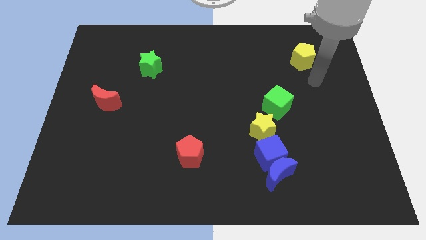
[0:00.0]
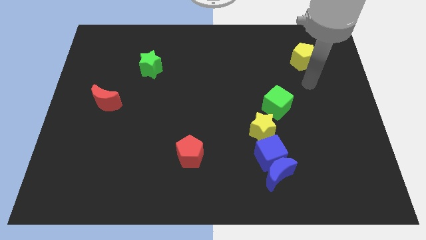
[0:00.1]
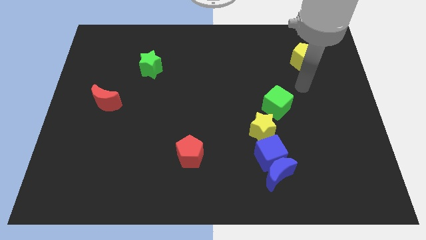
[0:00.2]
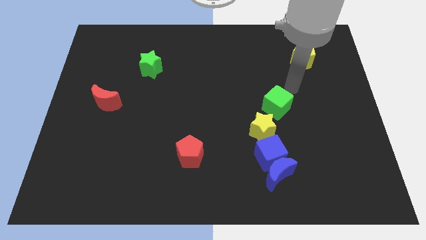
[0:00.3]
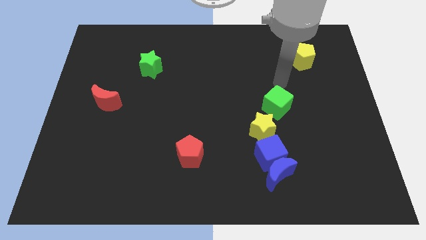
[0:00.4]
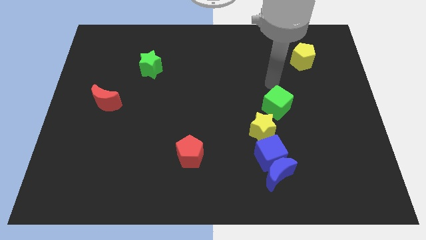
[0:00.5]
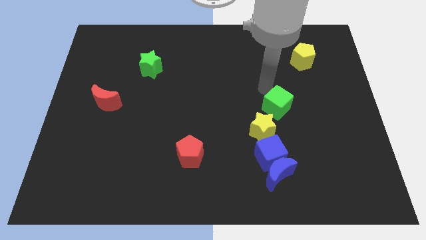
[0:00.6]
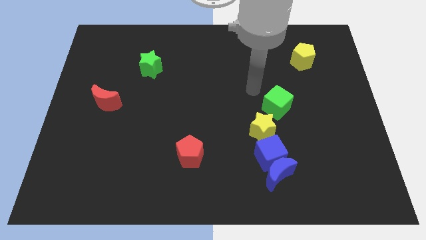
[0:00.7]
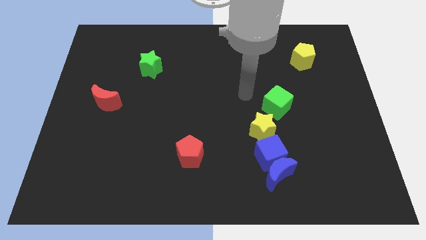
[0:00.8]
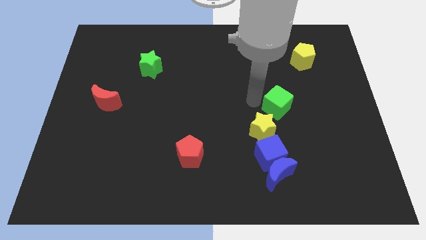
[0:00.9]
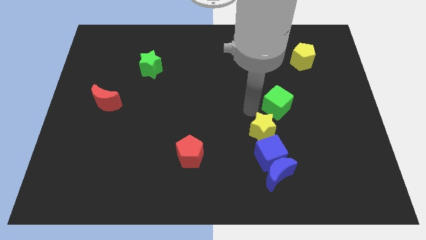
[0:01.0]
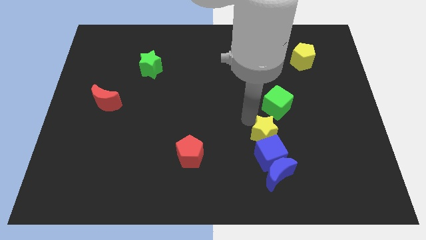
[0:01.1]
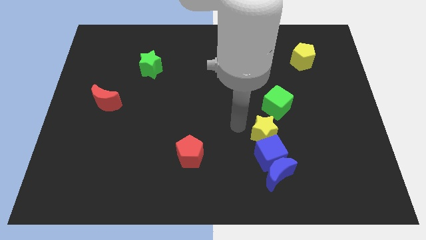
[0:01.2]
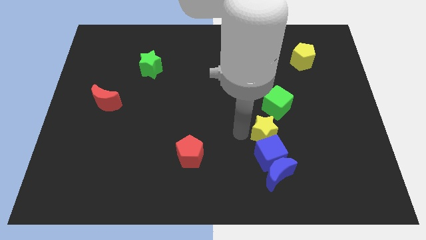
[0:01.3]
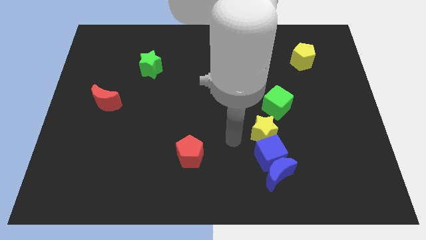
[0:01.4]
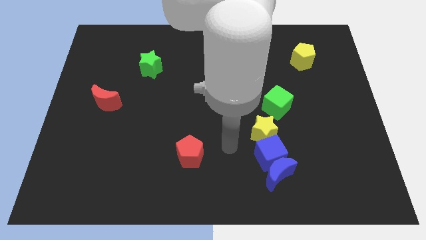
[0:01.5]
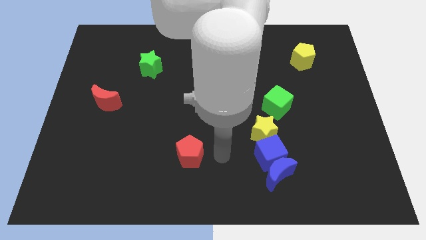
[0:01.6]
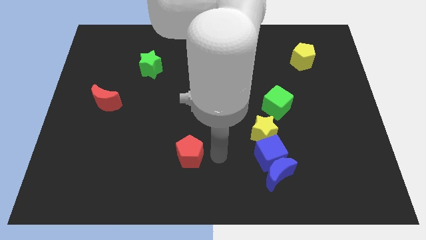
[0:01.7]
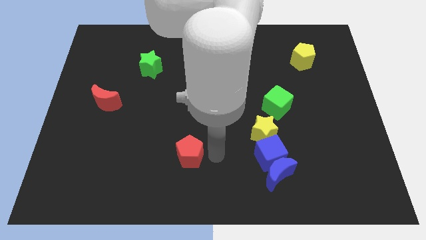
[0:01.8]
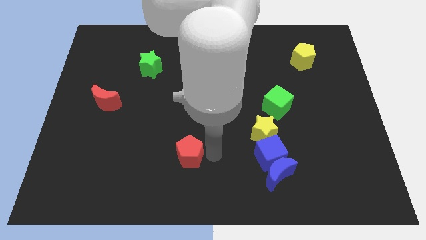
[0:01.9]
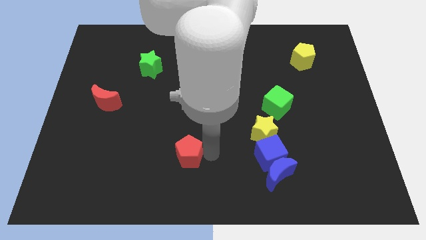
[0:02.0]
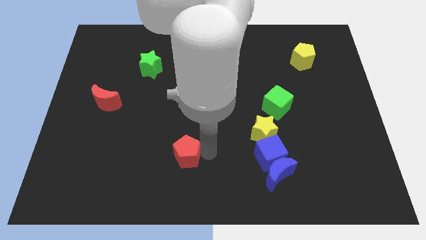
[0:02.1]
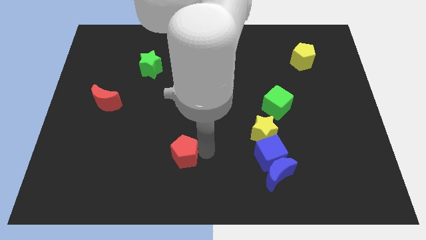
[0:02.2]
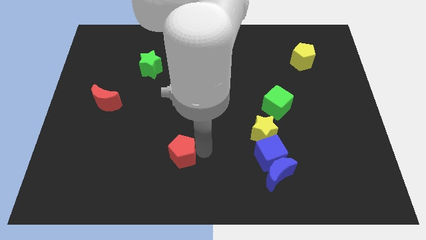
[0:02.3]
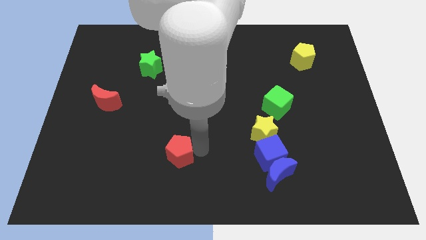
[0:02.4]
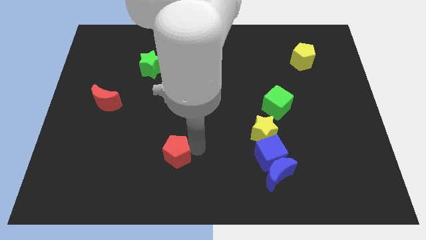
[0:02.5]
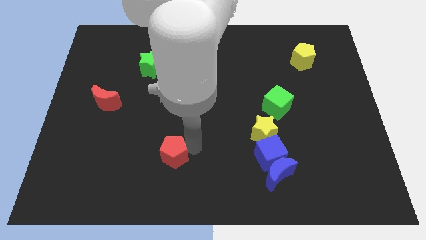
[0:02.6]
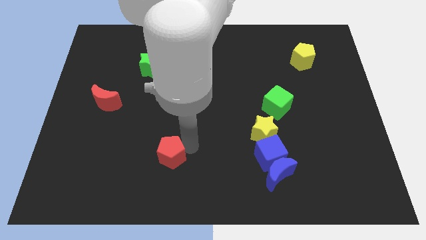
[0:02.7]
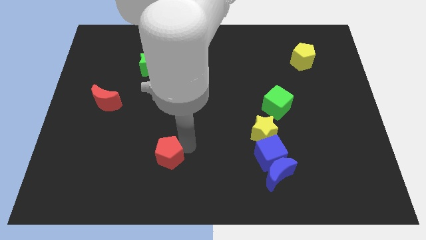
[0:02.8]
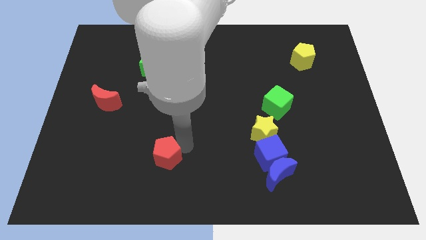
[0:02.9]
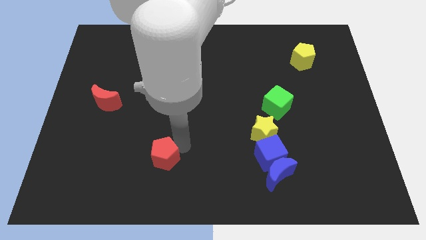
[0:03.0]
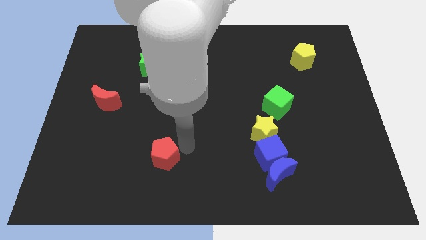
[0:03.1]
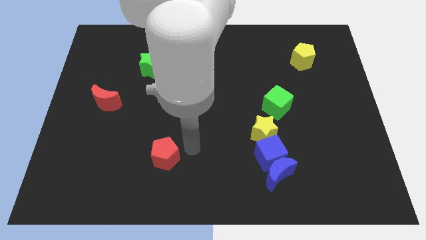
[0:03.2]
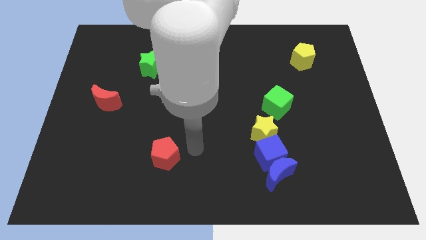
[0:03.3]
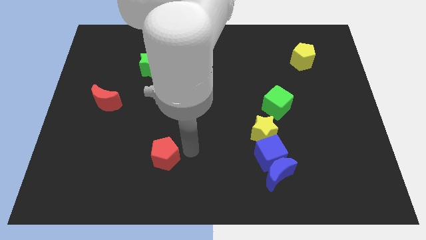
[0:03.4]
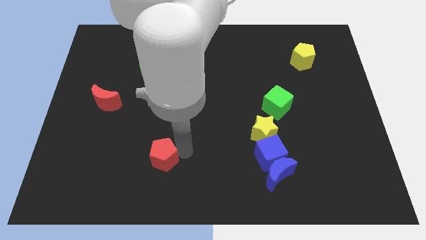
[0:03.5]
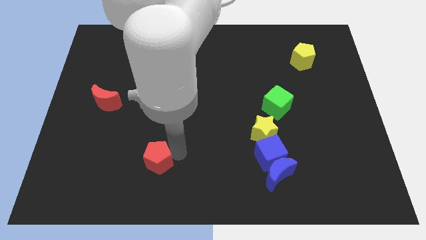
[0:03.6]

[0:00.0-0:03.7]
move the red pentagon slightly to the left

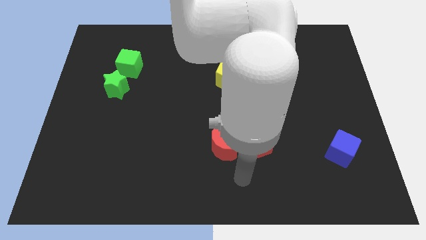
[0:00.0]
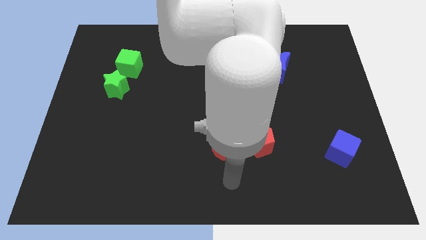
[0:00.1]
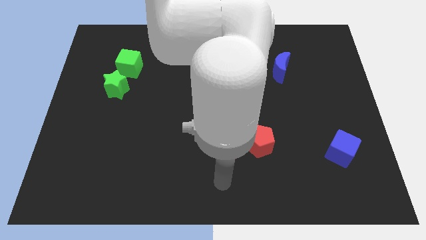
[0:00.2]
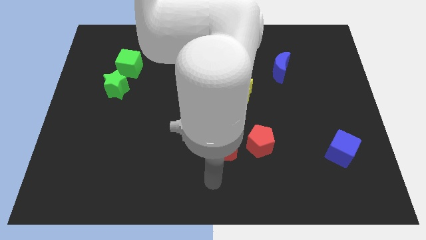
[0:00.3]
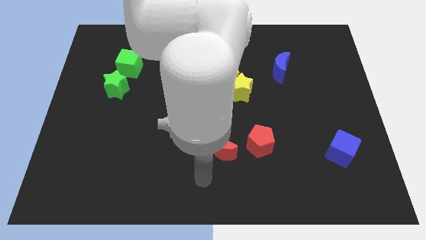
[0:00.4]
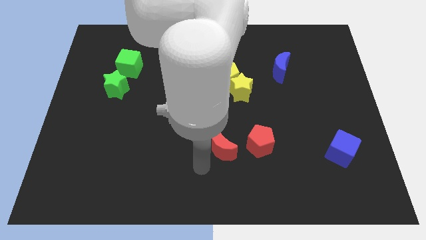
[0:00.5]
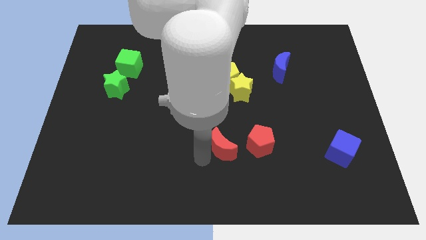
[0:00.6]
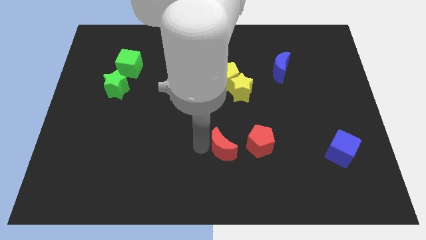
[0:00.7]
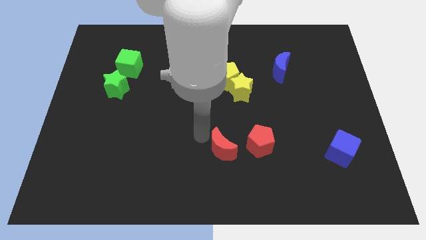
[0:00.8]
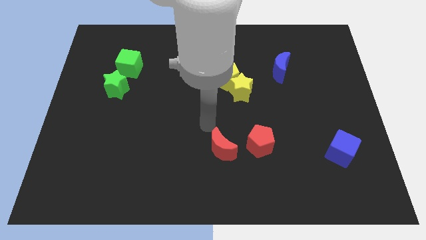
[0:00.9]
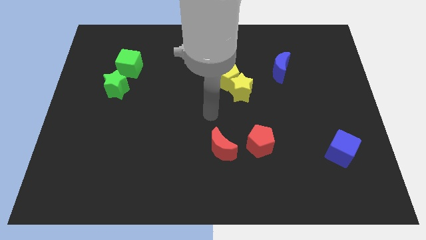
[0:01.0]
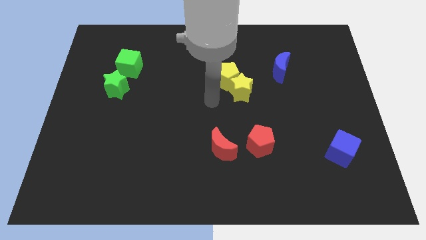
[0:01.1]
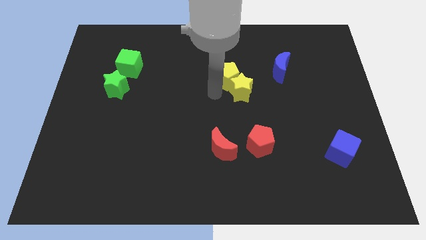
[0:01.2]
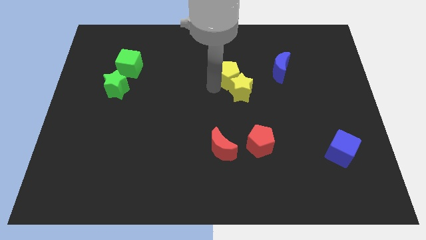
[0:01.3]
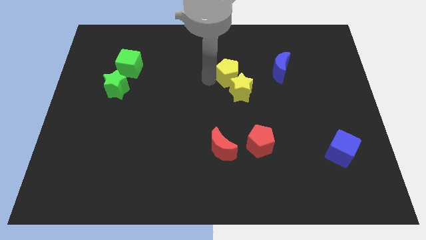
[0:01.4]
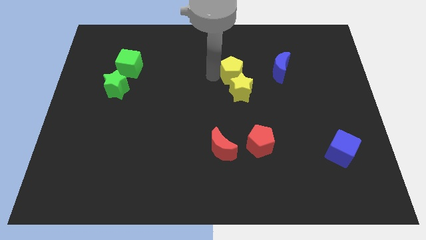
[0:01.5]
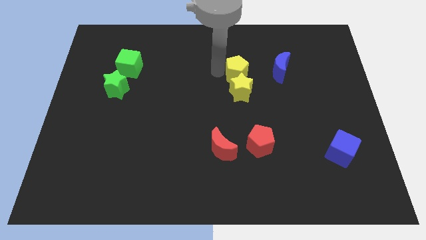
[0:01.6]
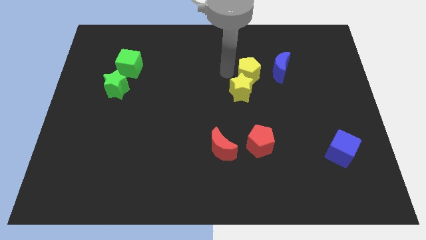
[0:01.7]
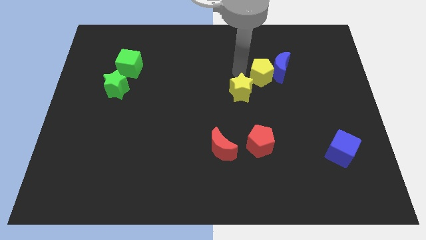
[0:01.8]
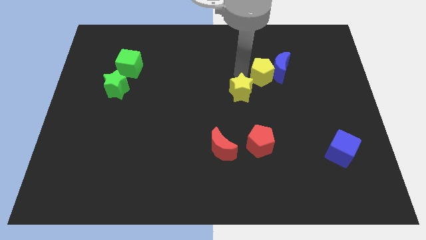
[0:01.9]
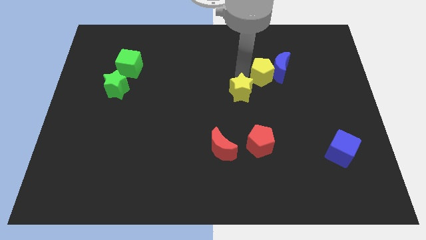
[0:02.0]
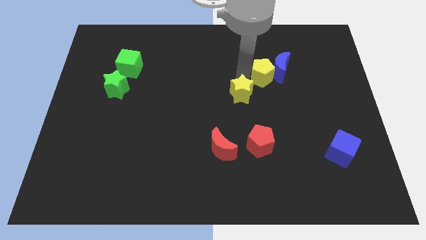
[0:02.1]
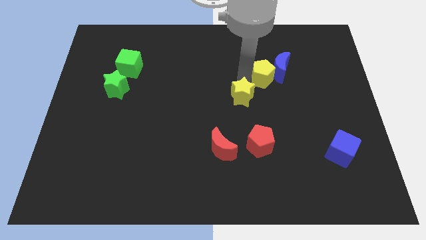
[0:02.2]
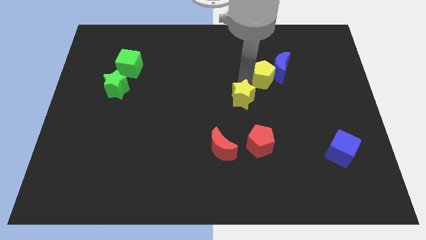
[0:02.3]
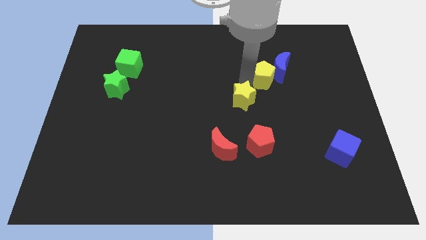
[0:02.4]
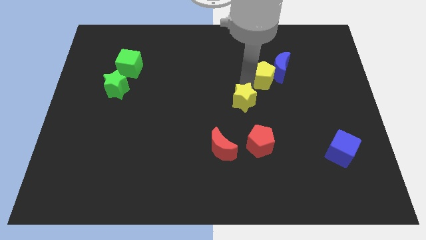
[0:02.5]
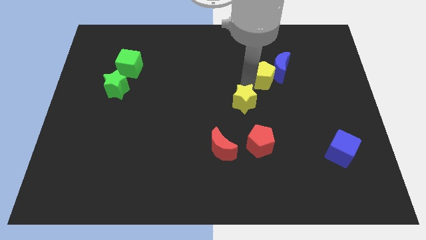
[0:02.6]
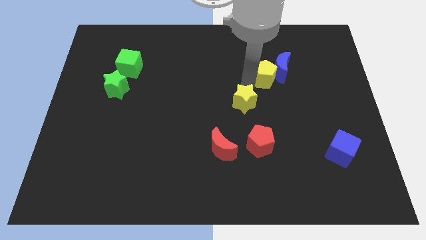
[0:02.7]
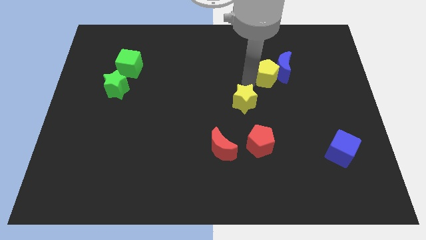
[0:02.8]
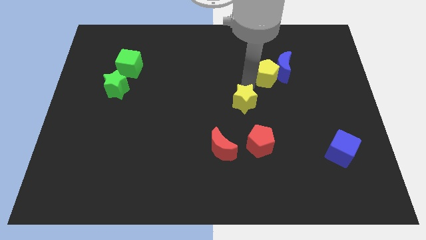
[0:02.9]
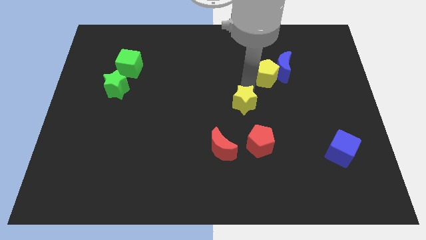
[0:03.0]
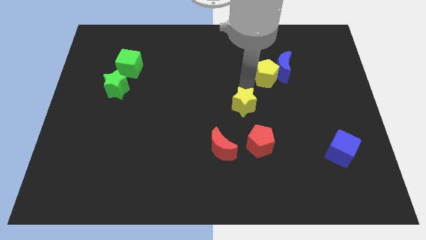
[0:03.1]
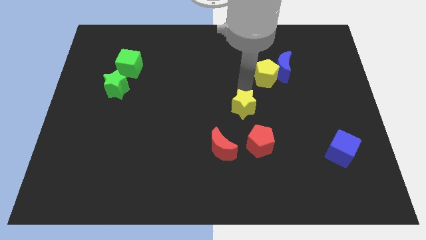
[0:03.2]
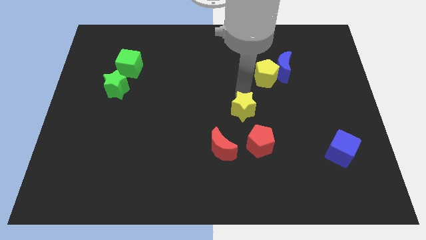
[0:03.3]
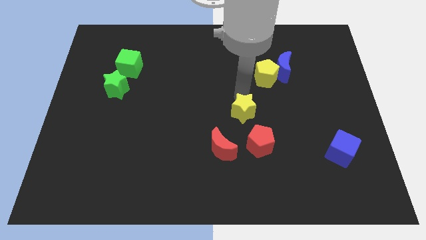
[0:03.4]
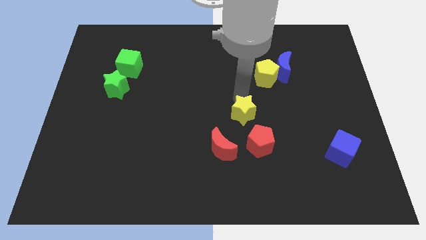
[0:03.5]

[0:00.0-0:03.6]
slightly push the yellow star down

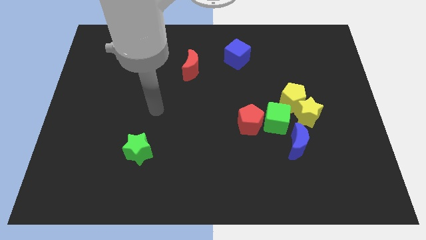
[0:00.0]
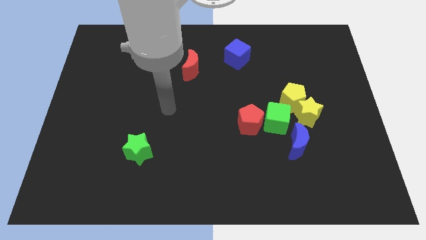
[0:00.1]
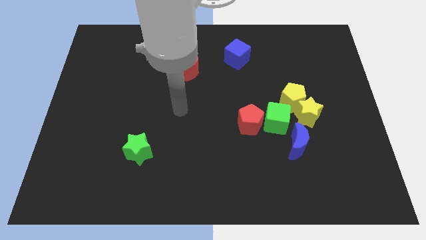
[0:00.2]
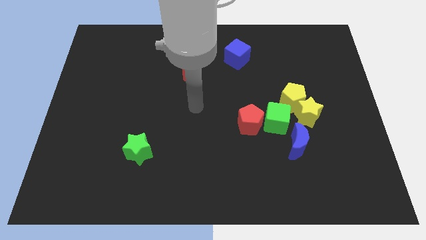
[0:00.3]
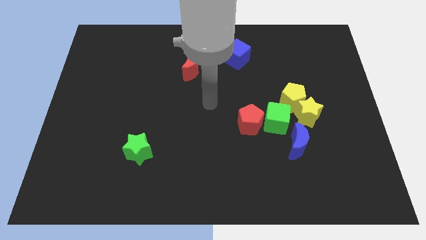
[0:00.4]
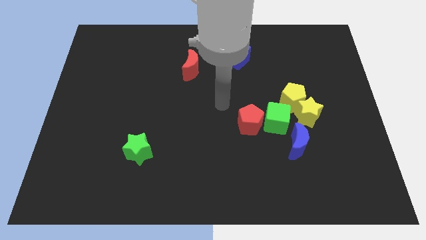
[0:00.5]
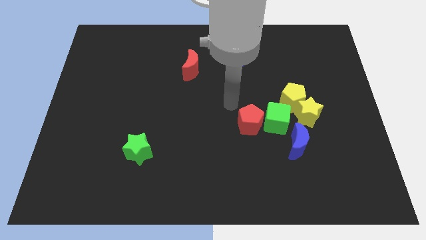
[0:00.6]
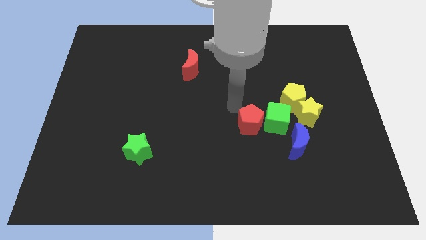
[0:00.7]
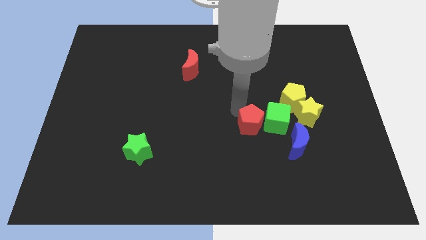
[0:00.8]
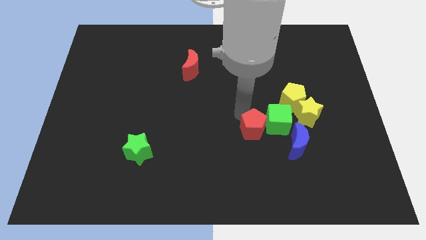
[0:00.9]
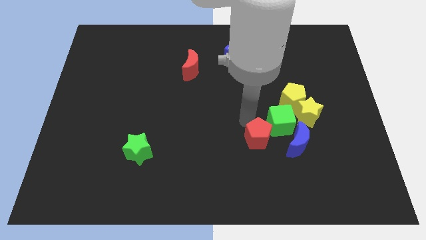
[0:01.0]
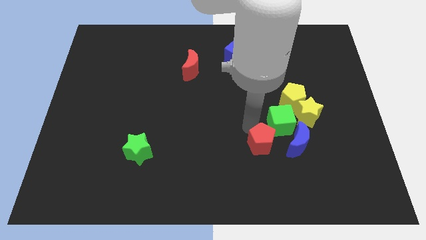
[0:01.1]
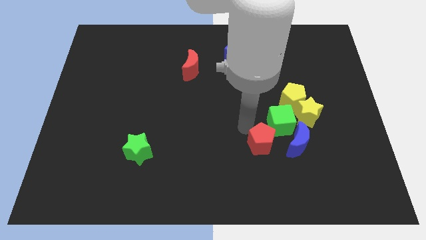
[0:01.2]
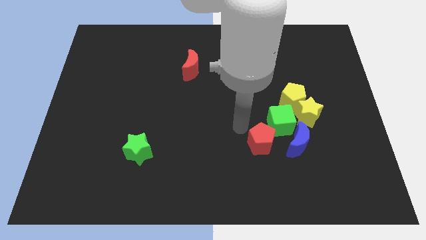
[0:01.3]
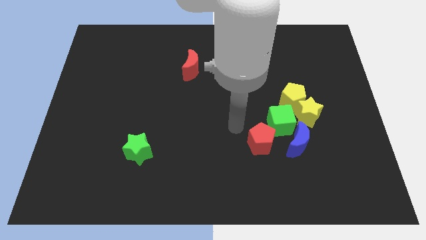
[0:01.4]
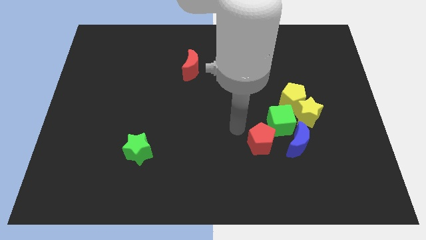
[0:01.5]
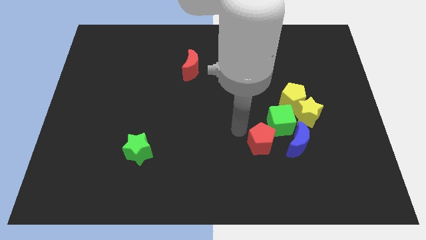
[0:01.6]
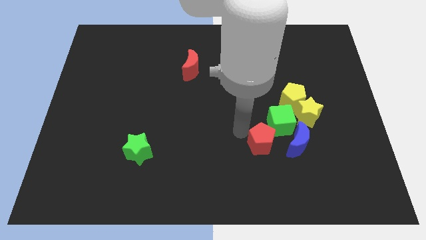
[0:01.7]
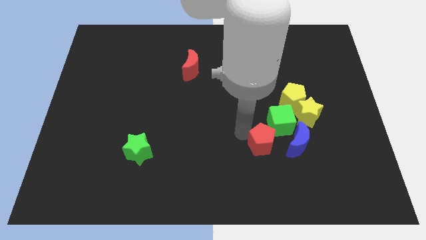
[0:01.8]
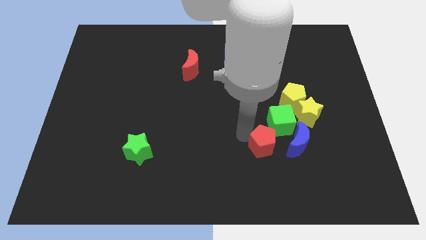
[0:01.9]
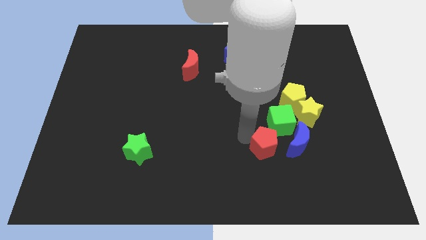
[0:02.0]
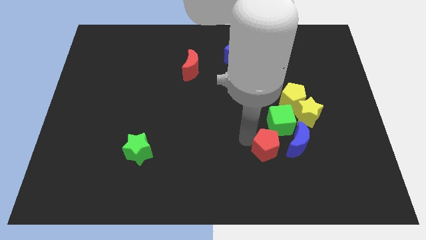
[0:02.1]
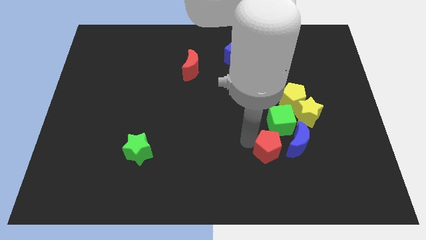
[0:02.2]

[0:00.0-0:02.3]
push the red pentagon downwards and to the right diagonally a little
